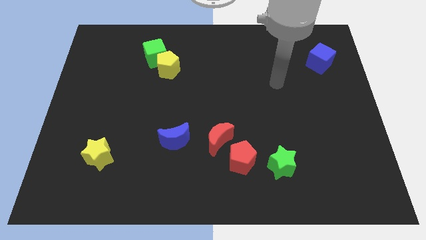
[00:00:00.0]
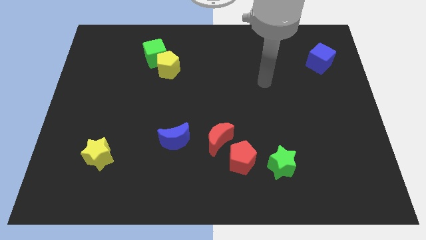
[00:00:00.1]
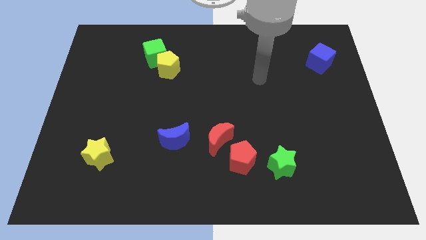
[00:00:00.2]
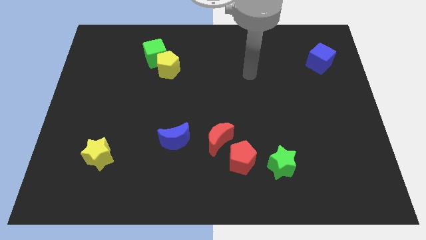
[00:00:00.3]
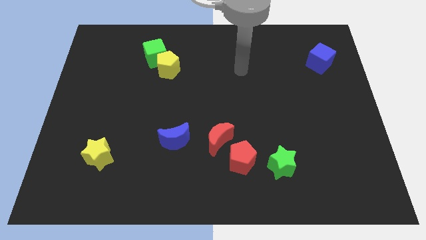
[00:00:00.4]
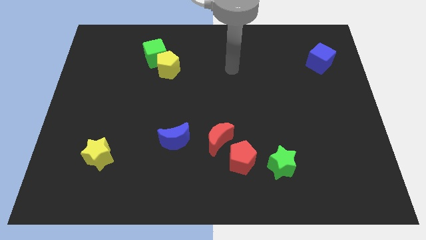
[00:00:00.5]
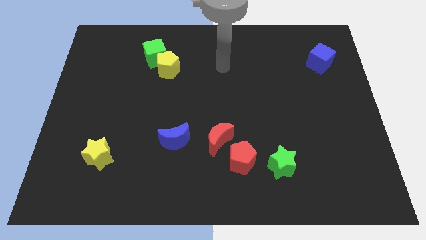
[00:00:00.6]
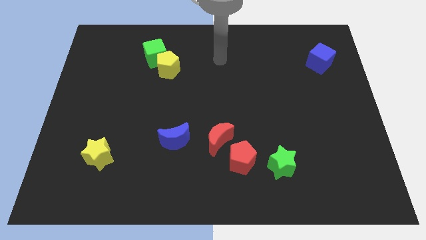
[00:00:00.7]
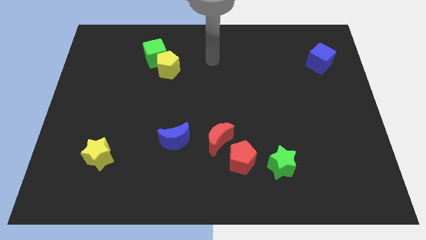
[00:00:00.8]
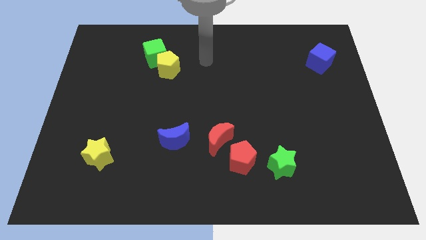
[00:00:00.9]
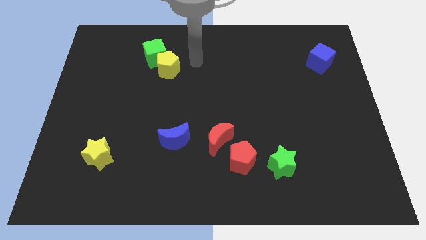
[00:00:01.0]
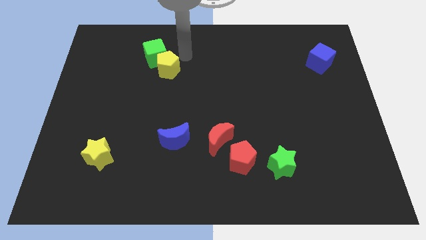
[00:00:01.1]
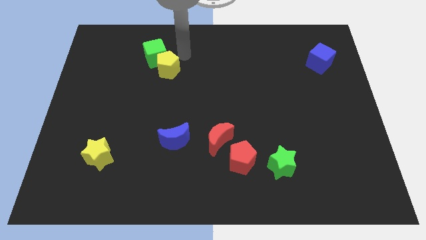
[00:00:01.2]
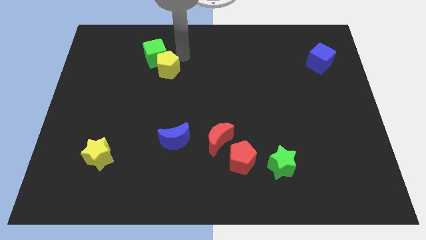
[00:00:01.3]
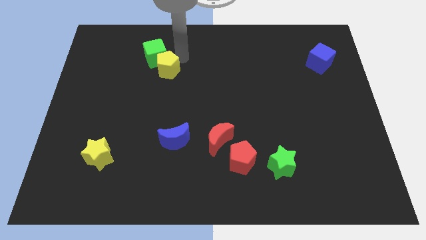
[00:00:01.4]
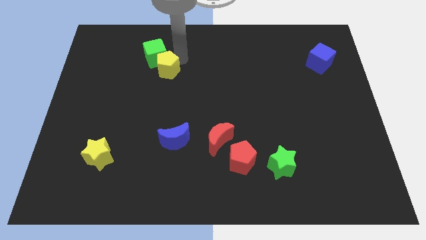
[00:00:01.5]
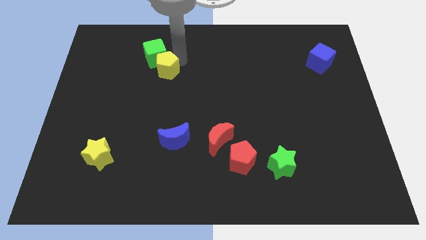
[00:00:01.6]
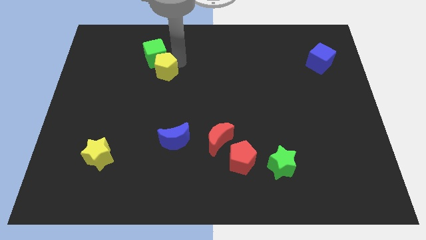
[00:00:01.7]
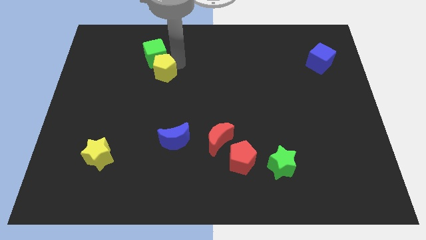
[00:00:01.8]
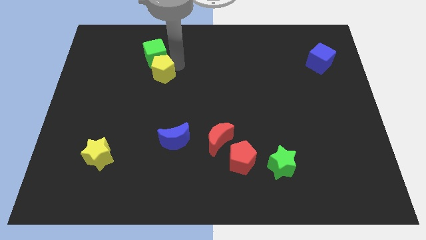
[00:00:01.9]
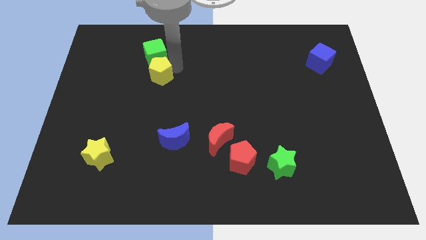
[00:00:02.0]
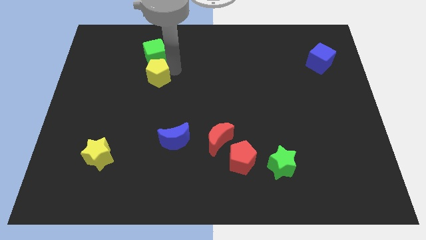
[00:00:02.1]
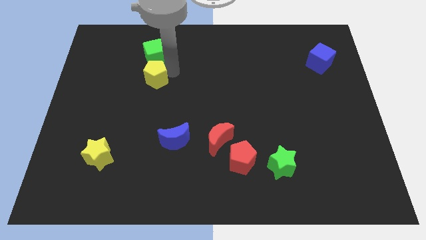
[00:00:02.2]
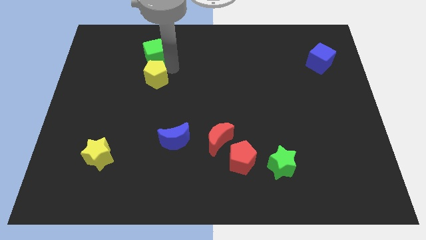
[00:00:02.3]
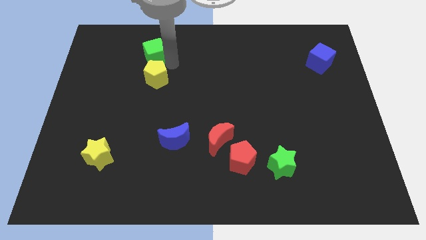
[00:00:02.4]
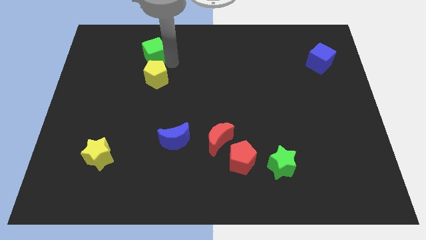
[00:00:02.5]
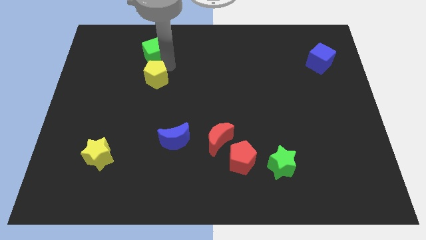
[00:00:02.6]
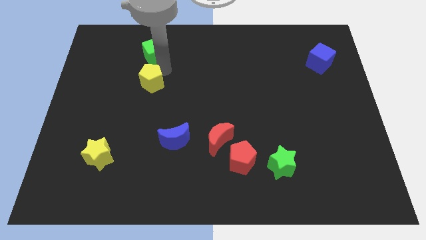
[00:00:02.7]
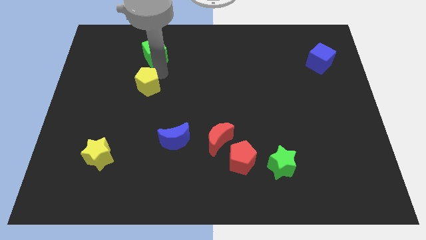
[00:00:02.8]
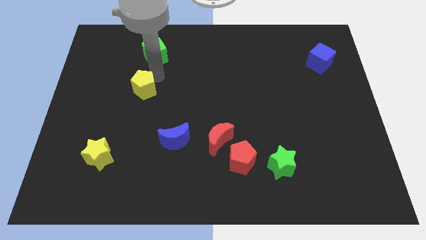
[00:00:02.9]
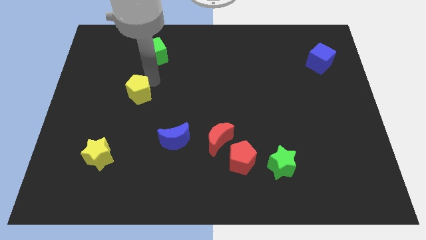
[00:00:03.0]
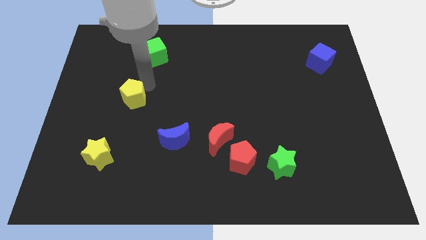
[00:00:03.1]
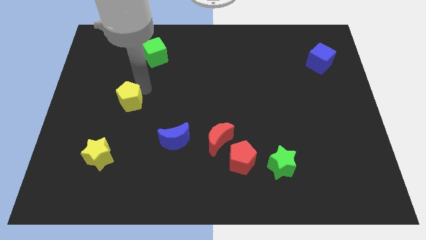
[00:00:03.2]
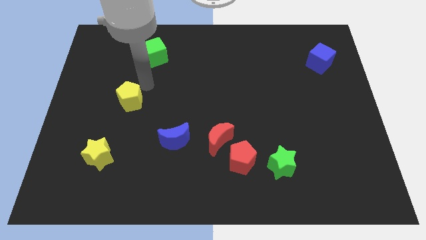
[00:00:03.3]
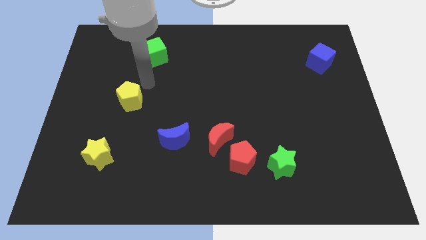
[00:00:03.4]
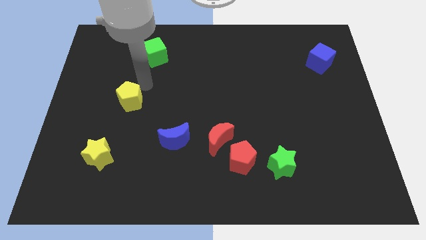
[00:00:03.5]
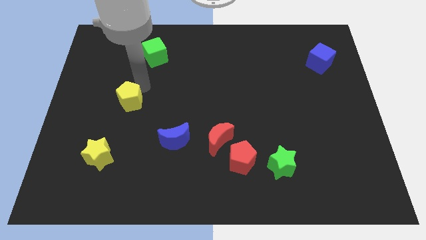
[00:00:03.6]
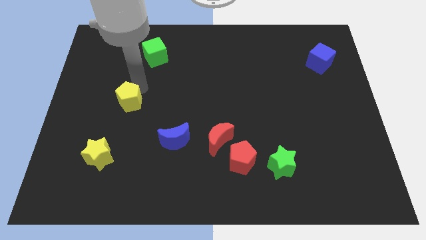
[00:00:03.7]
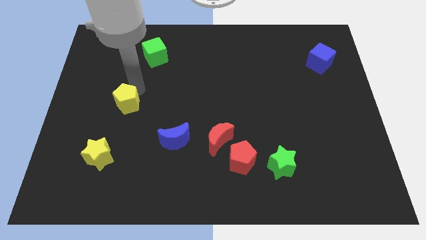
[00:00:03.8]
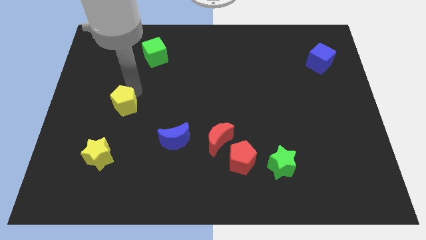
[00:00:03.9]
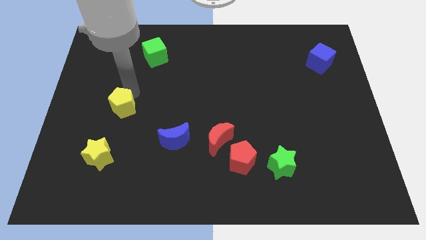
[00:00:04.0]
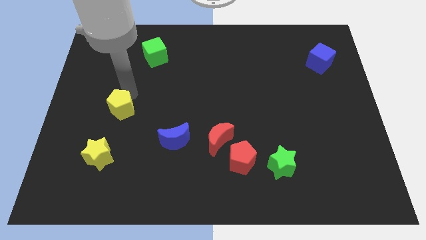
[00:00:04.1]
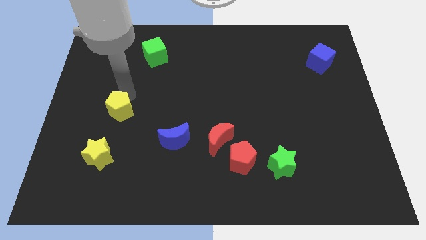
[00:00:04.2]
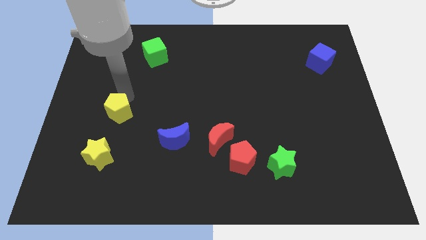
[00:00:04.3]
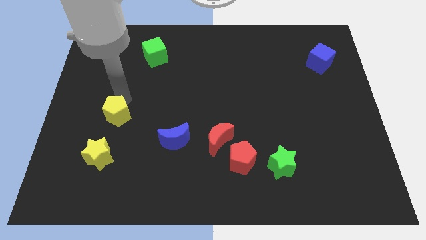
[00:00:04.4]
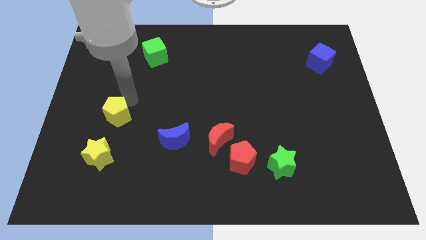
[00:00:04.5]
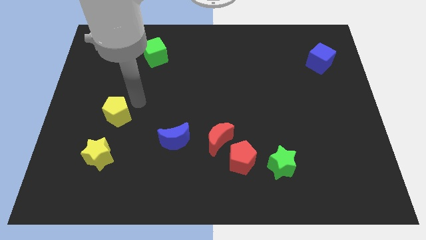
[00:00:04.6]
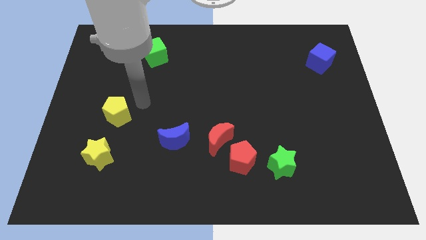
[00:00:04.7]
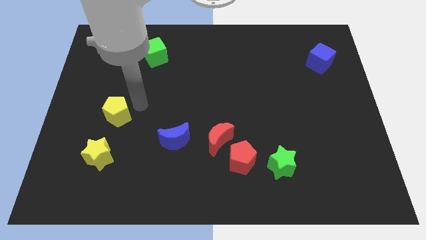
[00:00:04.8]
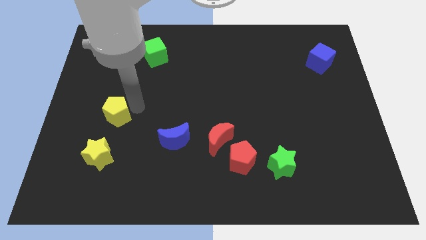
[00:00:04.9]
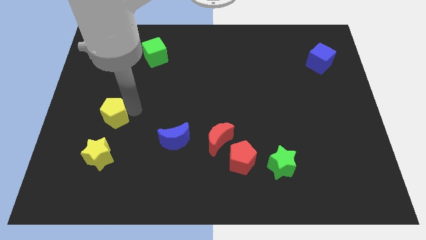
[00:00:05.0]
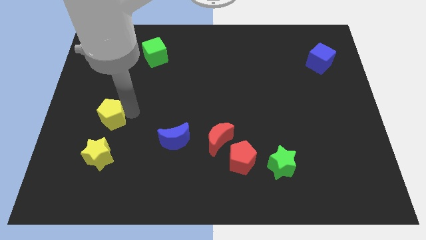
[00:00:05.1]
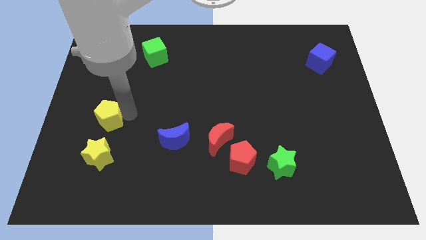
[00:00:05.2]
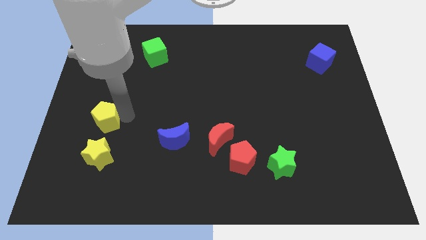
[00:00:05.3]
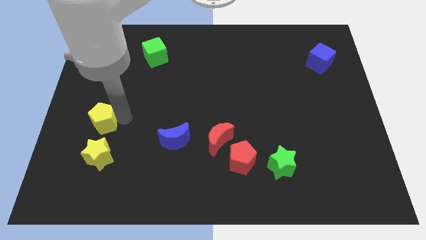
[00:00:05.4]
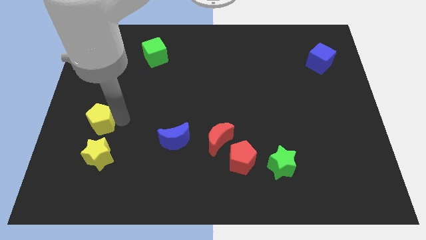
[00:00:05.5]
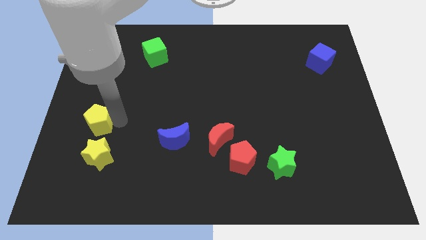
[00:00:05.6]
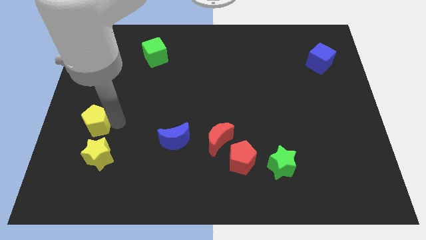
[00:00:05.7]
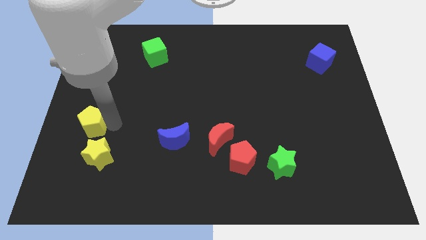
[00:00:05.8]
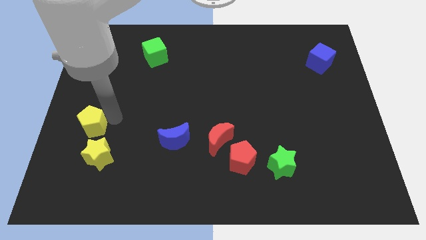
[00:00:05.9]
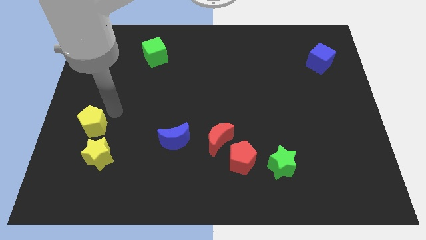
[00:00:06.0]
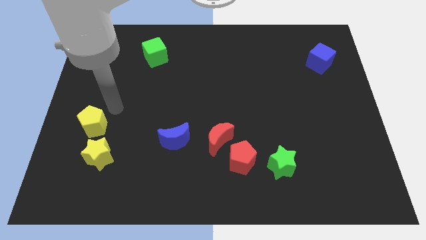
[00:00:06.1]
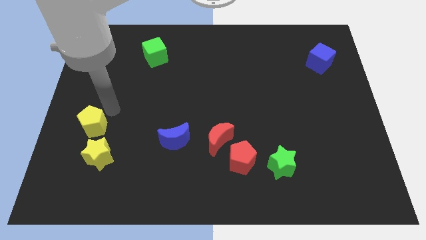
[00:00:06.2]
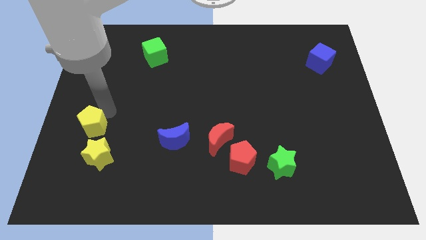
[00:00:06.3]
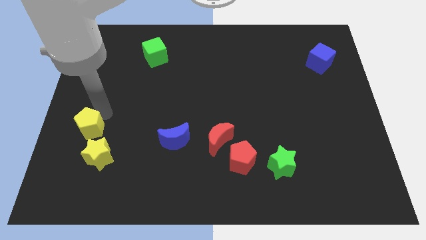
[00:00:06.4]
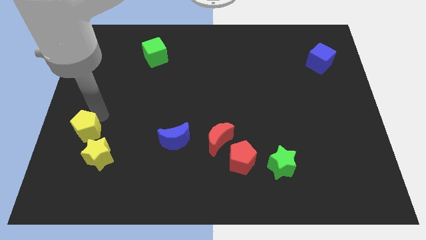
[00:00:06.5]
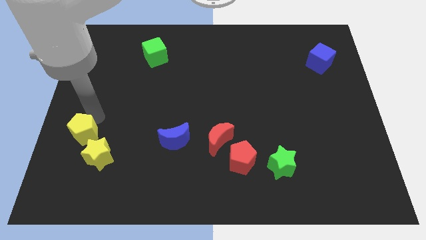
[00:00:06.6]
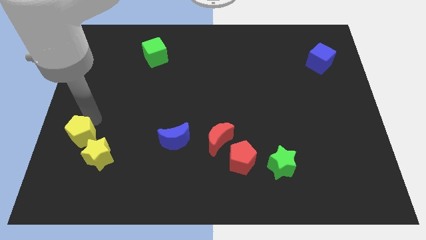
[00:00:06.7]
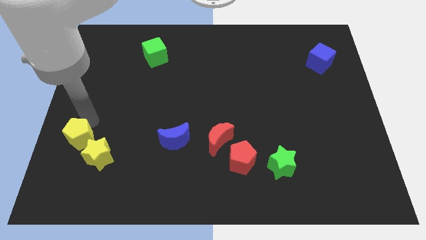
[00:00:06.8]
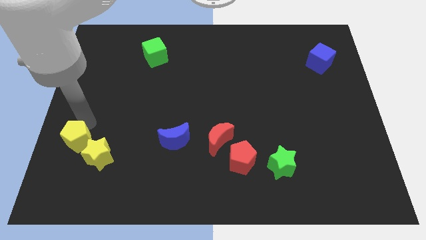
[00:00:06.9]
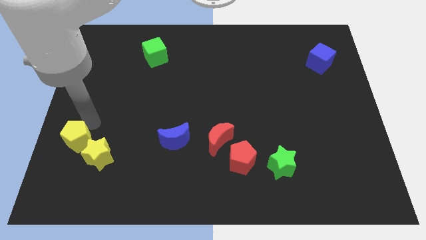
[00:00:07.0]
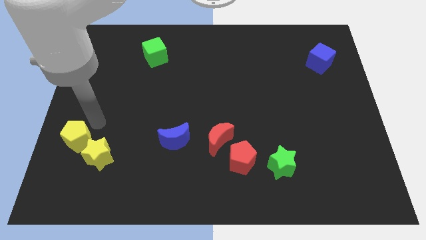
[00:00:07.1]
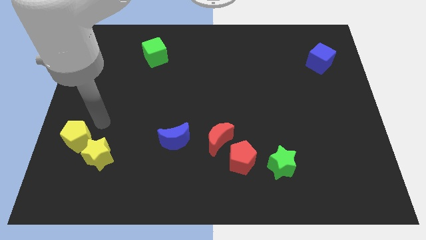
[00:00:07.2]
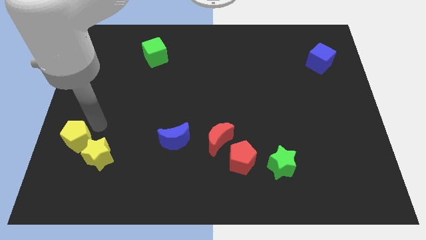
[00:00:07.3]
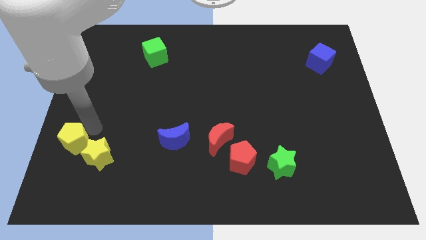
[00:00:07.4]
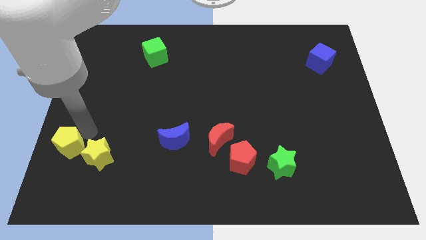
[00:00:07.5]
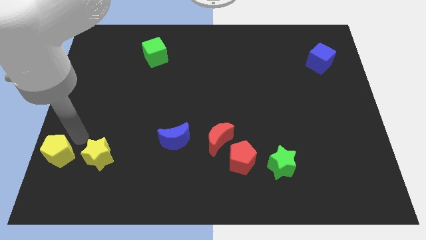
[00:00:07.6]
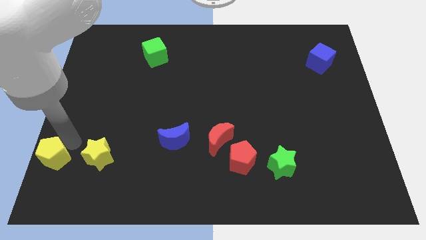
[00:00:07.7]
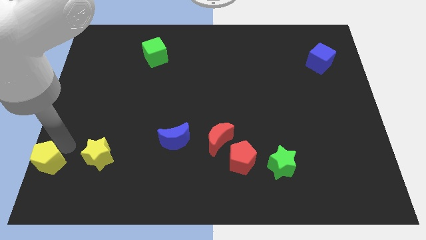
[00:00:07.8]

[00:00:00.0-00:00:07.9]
move the yellow pentagon to the lower left corner
